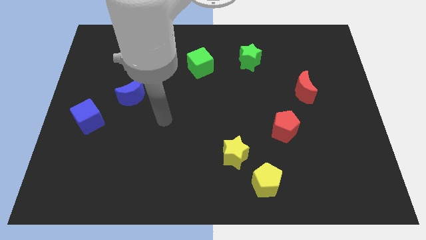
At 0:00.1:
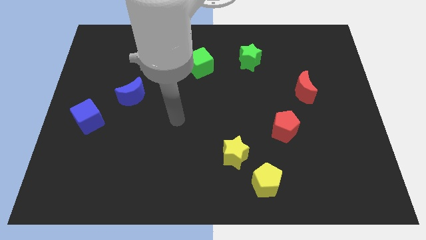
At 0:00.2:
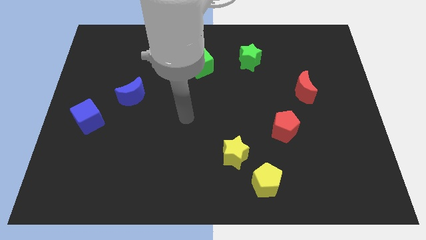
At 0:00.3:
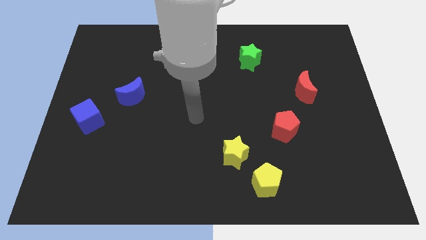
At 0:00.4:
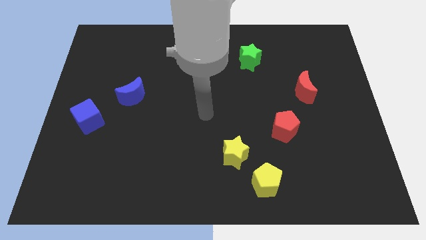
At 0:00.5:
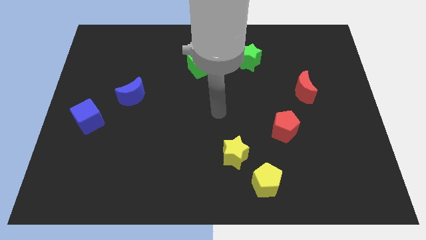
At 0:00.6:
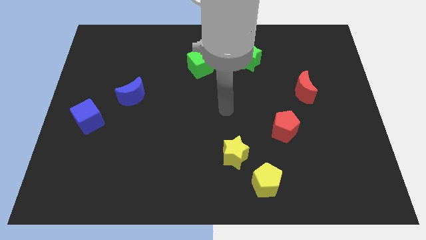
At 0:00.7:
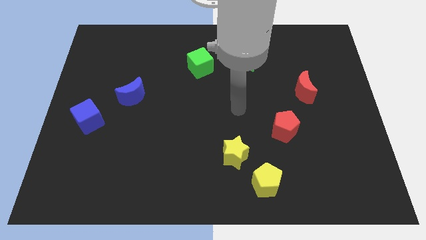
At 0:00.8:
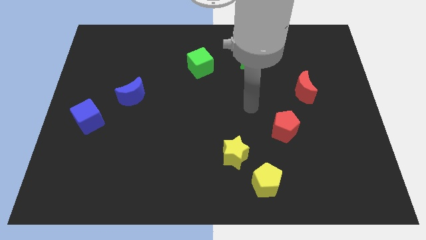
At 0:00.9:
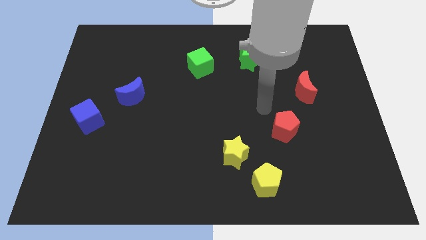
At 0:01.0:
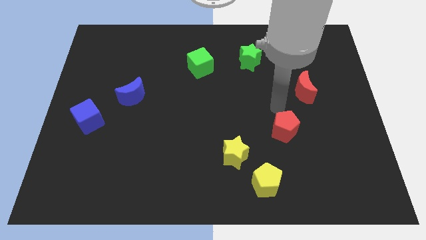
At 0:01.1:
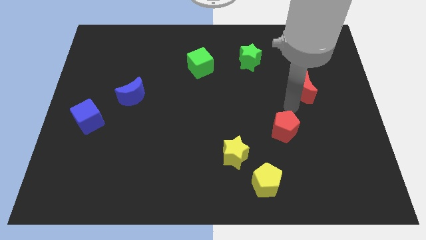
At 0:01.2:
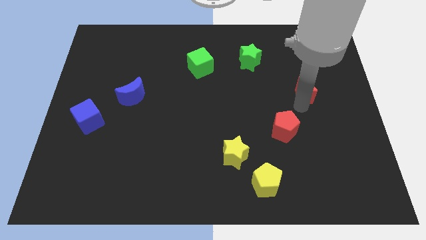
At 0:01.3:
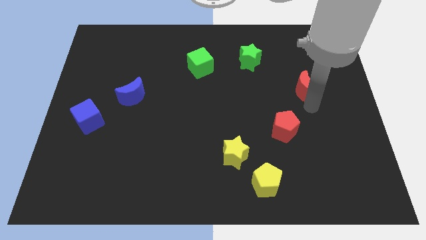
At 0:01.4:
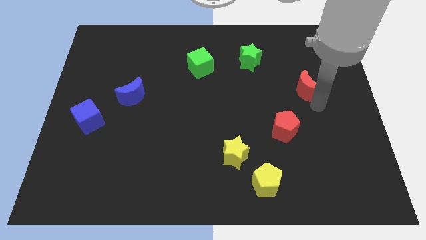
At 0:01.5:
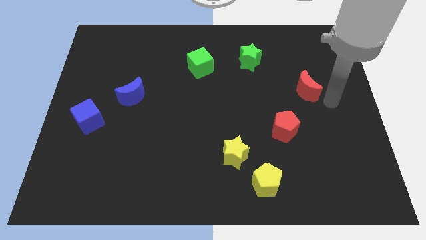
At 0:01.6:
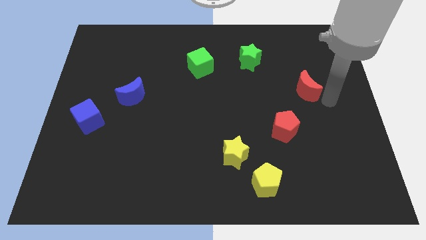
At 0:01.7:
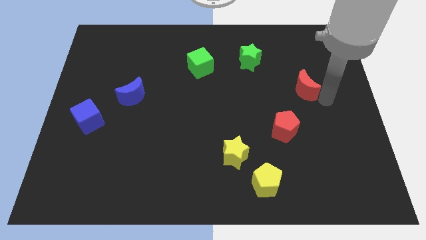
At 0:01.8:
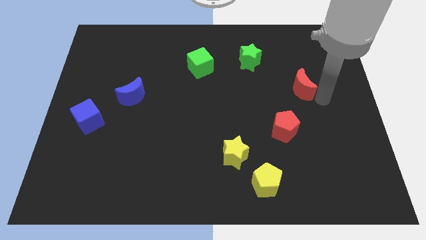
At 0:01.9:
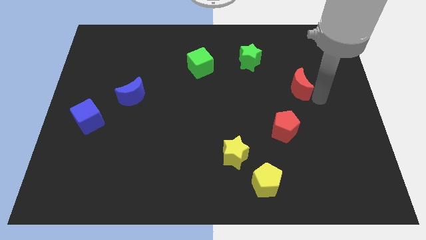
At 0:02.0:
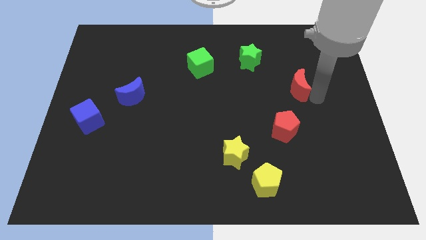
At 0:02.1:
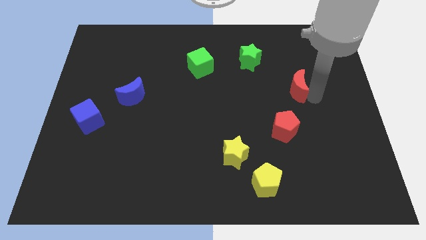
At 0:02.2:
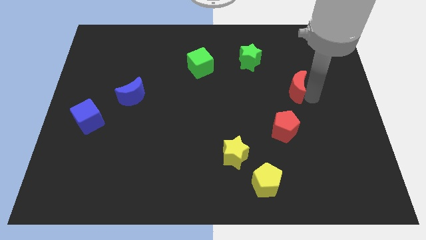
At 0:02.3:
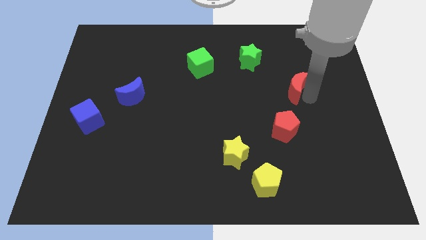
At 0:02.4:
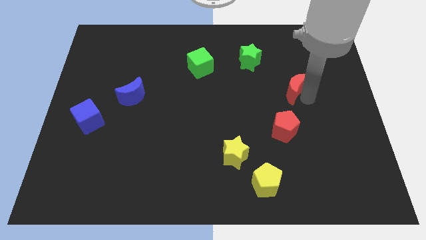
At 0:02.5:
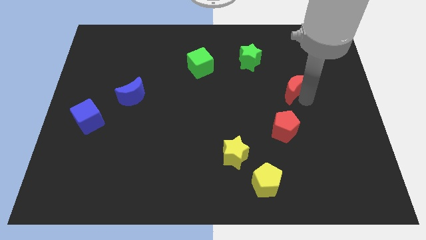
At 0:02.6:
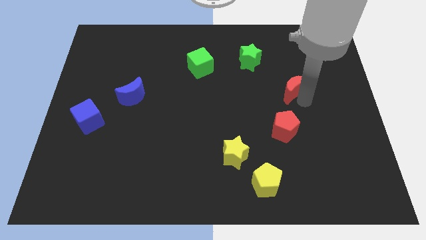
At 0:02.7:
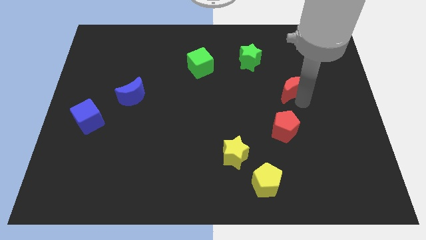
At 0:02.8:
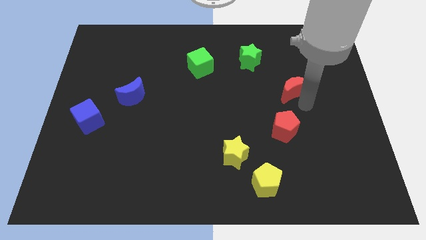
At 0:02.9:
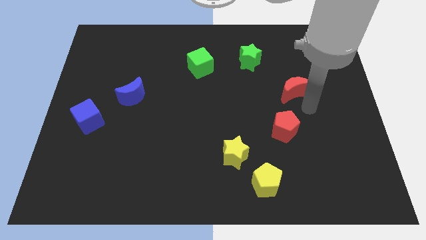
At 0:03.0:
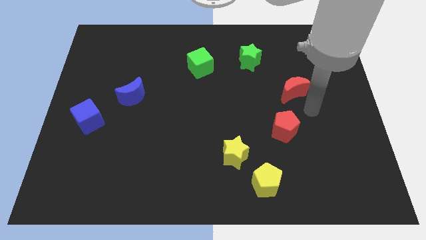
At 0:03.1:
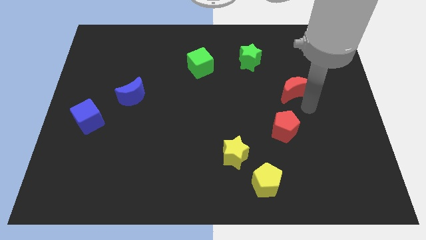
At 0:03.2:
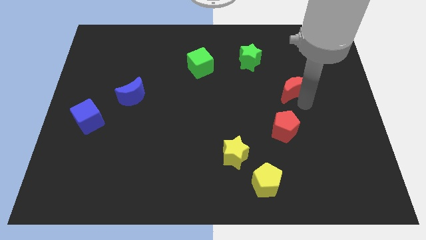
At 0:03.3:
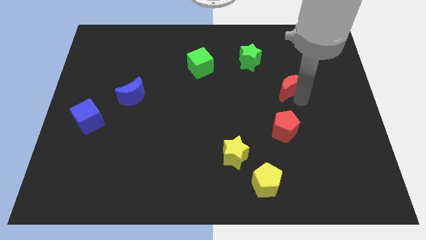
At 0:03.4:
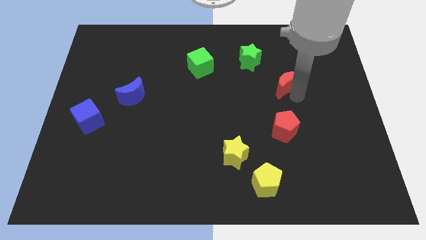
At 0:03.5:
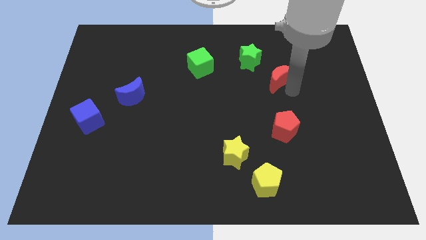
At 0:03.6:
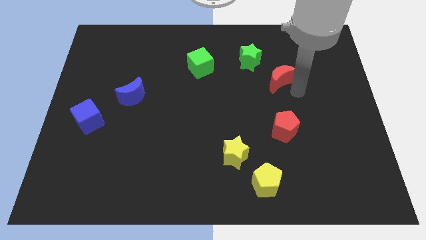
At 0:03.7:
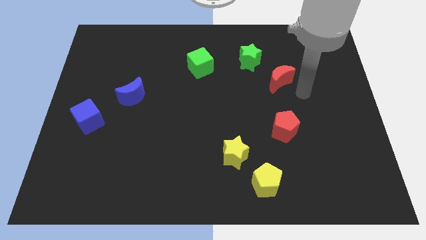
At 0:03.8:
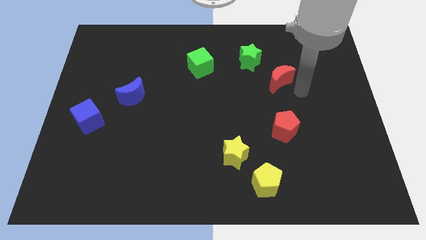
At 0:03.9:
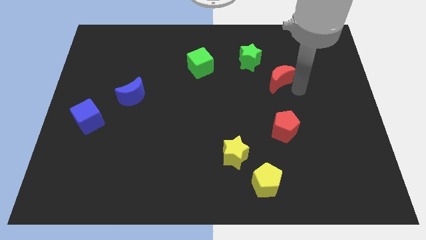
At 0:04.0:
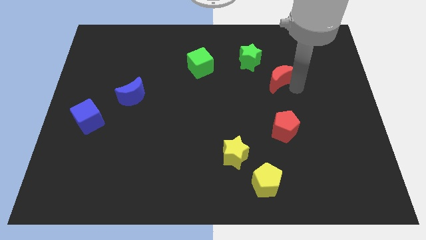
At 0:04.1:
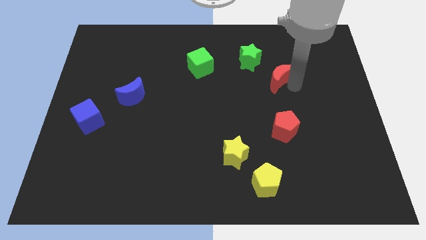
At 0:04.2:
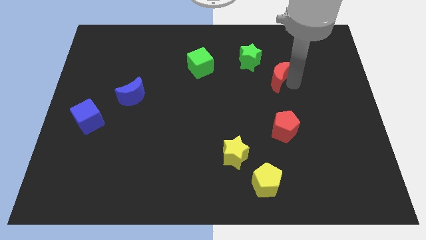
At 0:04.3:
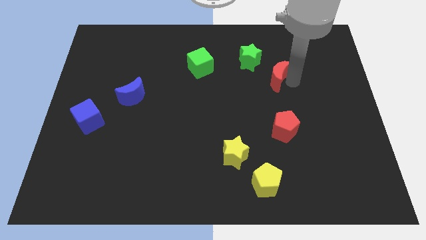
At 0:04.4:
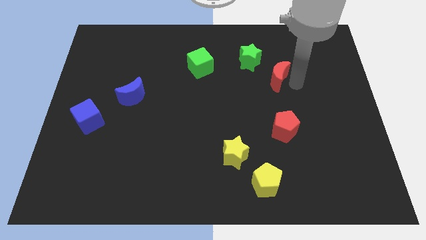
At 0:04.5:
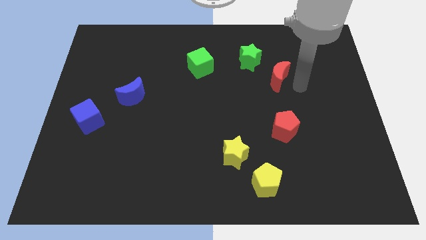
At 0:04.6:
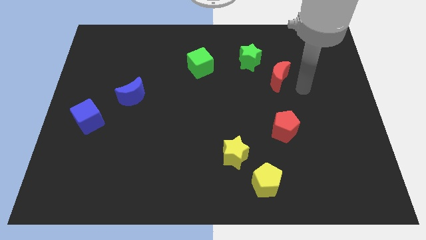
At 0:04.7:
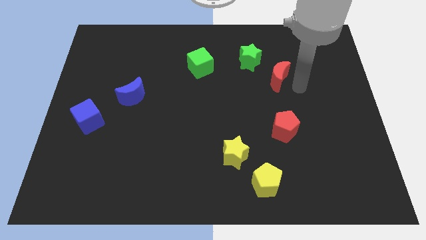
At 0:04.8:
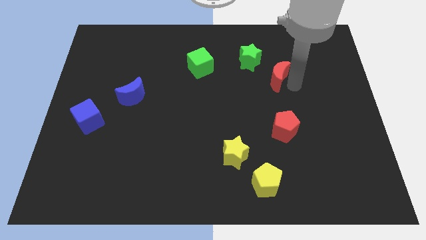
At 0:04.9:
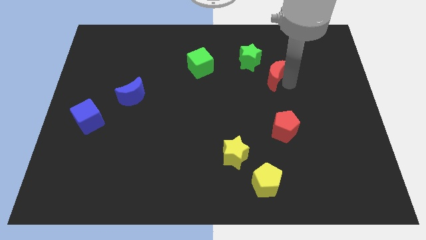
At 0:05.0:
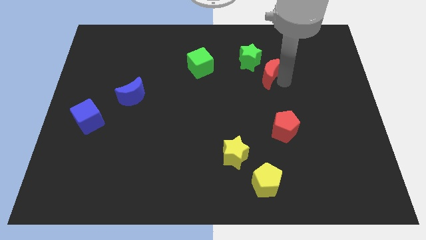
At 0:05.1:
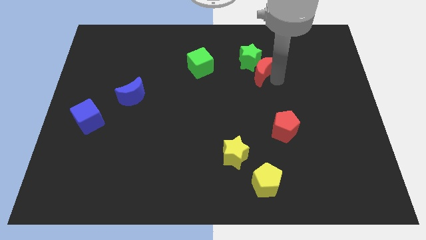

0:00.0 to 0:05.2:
push the red moon close to the green star

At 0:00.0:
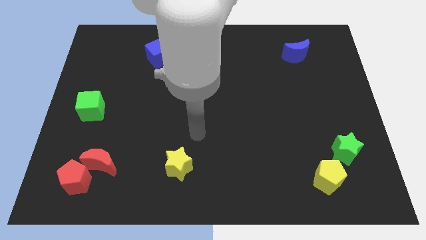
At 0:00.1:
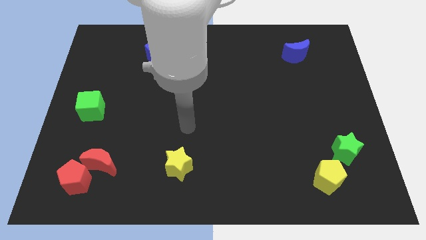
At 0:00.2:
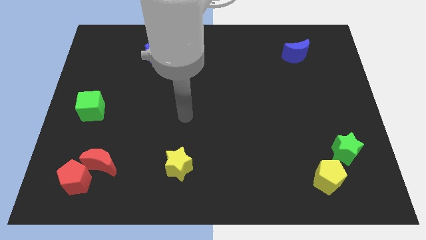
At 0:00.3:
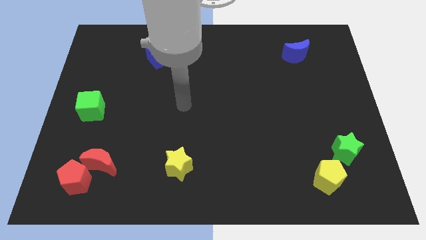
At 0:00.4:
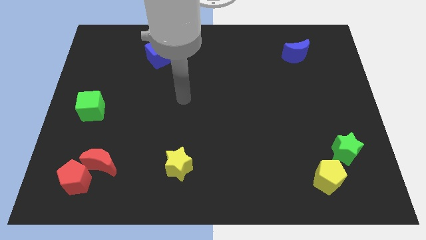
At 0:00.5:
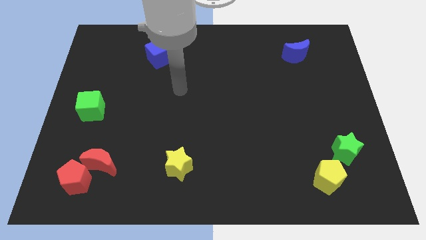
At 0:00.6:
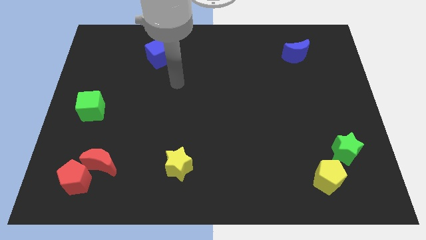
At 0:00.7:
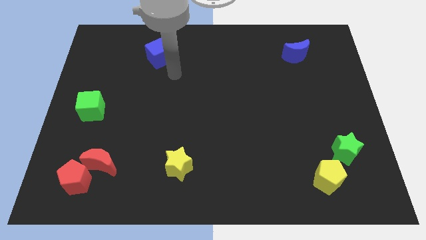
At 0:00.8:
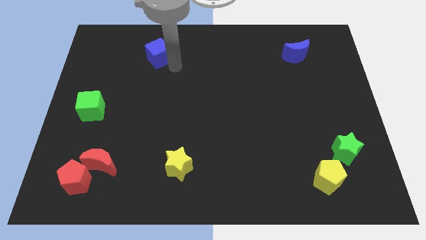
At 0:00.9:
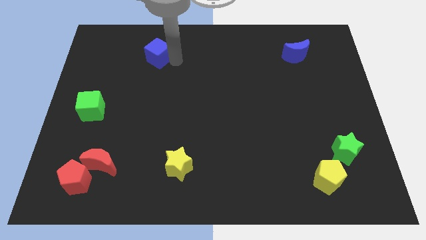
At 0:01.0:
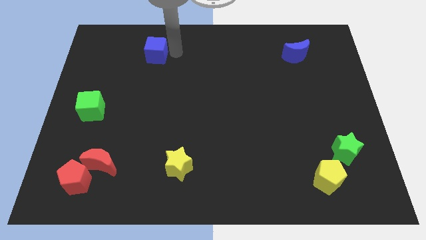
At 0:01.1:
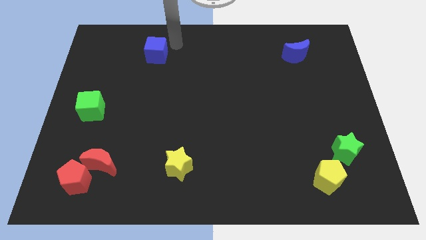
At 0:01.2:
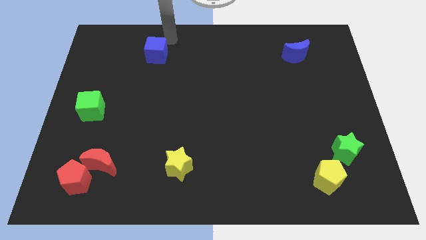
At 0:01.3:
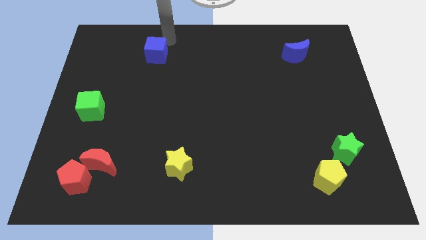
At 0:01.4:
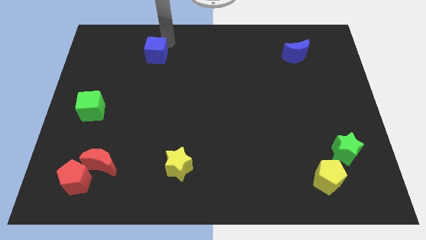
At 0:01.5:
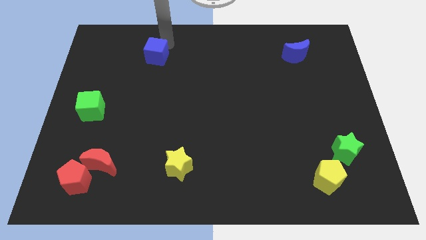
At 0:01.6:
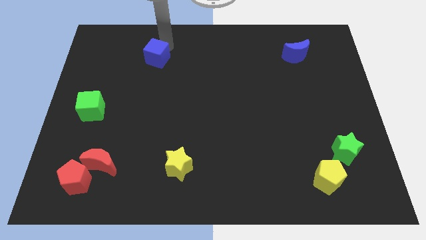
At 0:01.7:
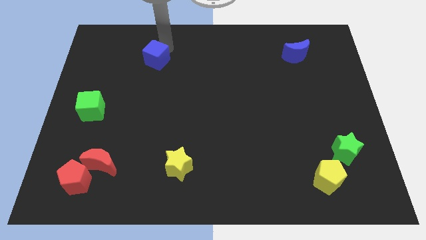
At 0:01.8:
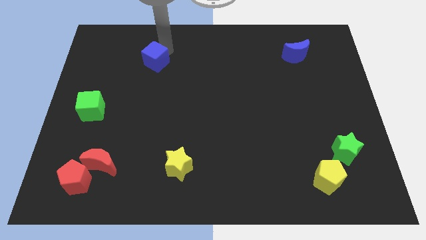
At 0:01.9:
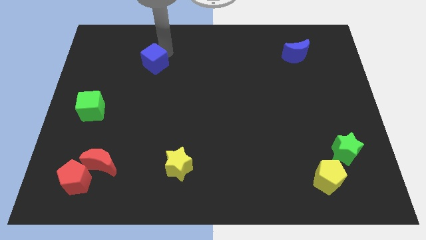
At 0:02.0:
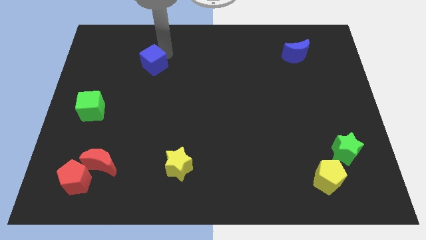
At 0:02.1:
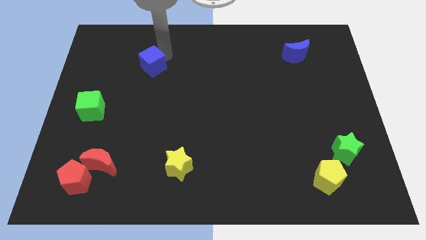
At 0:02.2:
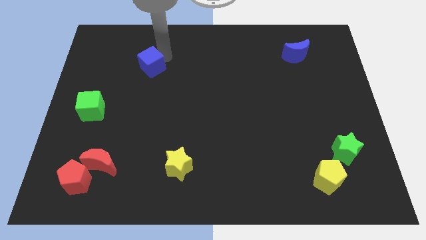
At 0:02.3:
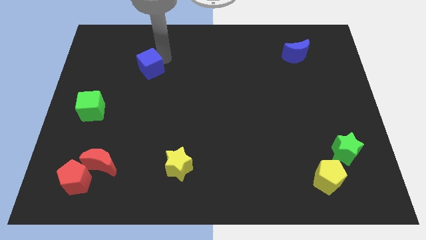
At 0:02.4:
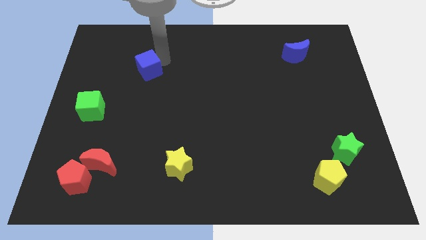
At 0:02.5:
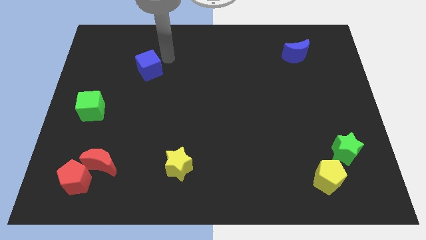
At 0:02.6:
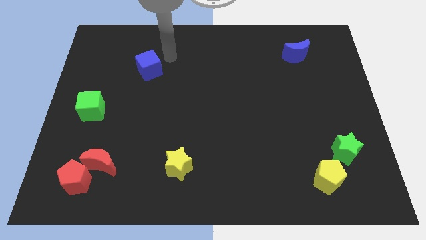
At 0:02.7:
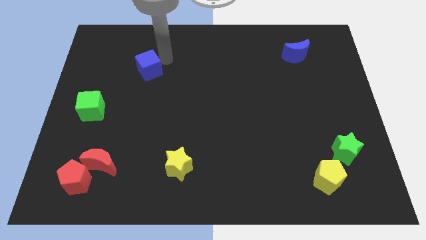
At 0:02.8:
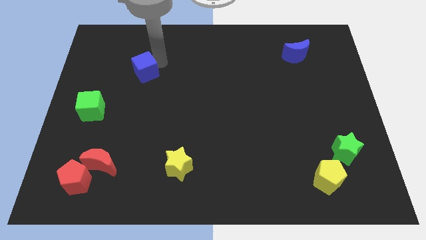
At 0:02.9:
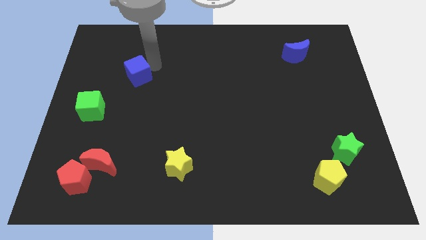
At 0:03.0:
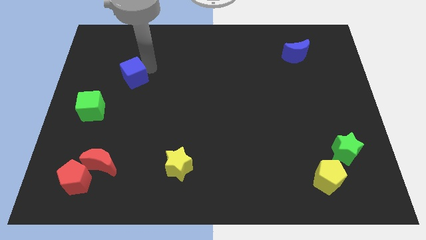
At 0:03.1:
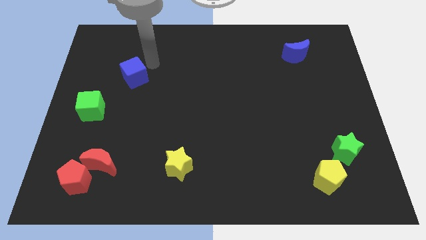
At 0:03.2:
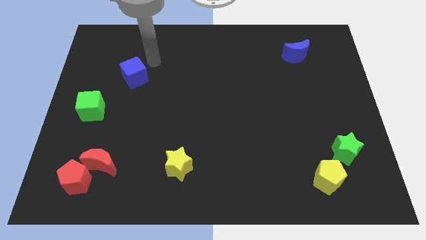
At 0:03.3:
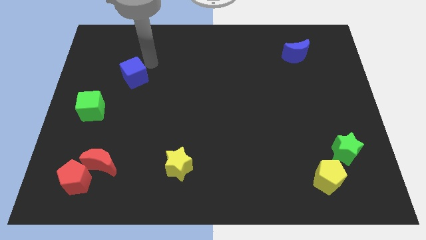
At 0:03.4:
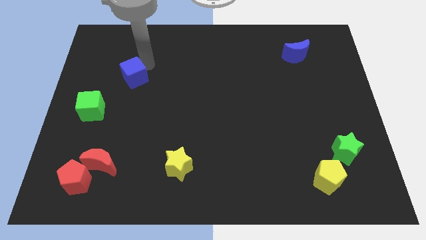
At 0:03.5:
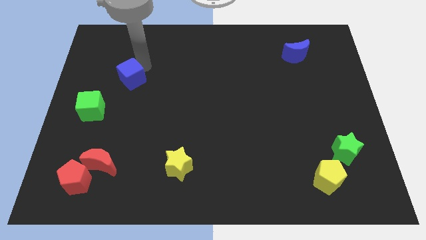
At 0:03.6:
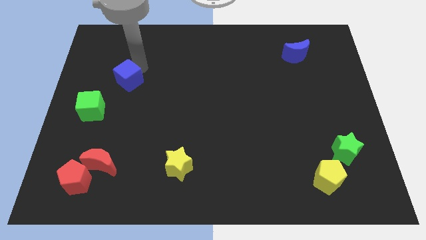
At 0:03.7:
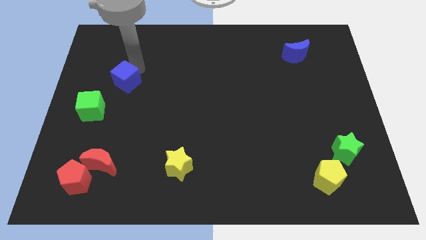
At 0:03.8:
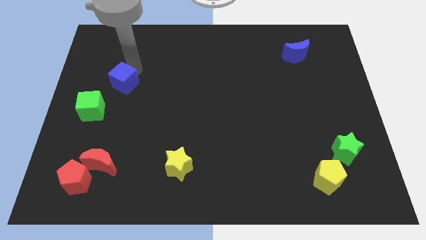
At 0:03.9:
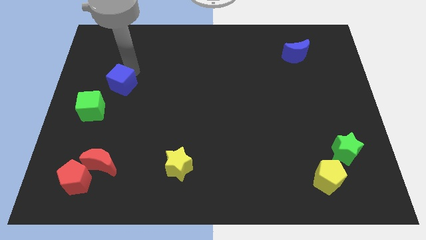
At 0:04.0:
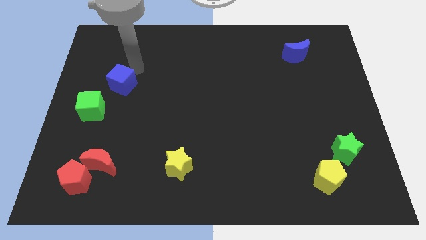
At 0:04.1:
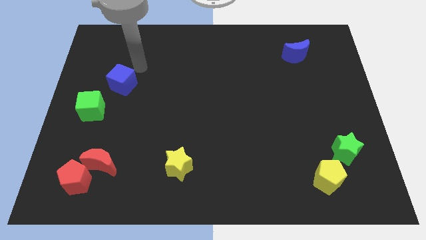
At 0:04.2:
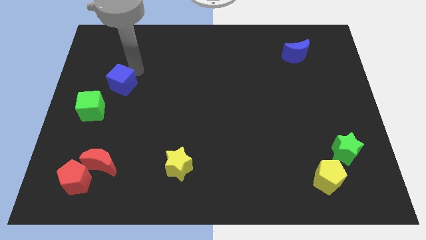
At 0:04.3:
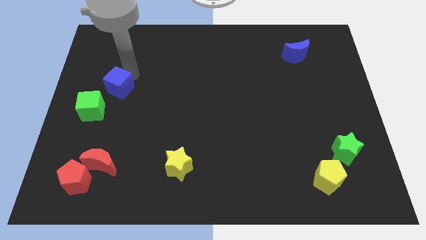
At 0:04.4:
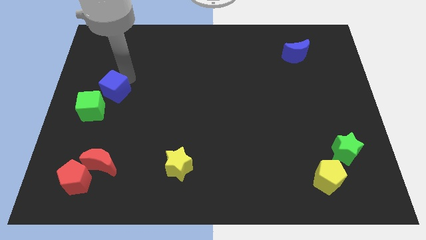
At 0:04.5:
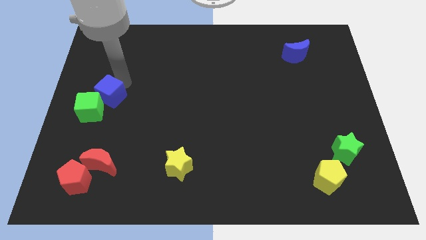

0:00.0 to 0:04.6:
push the blue cube towards the green cube
